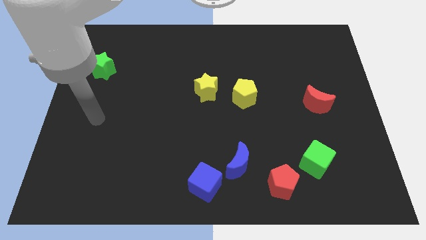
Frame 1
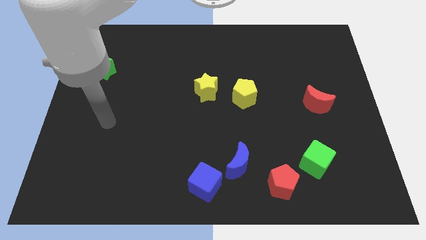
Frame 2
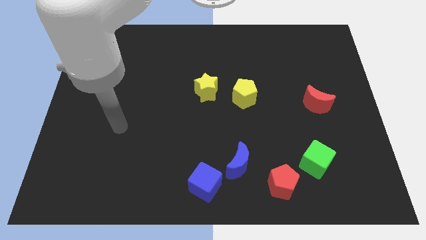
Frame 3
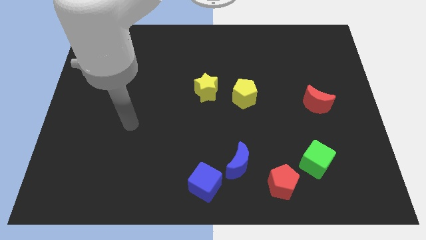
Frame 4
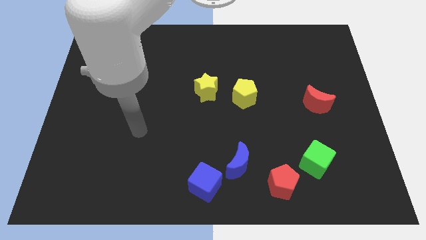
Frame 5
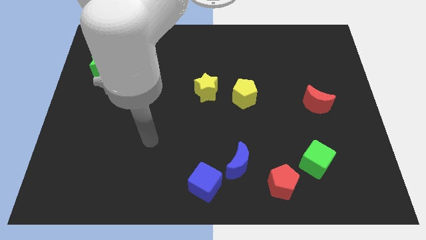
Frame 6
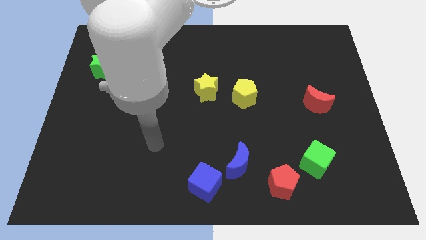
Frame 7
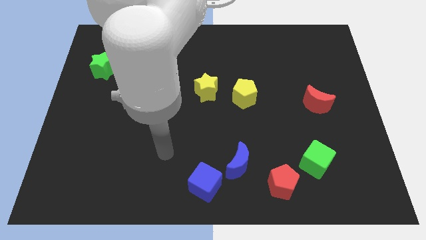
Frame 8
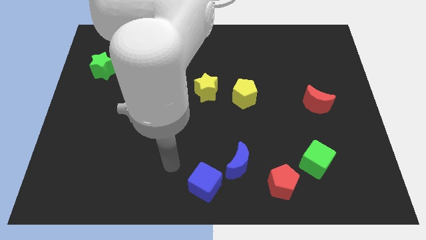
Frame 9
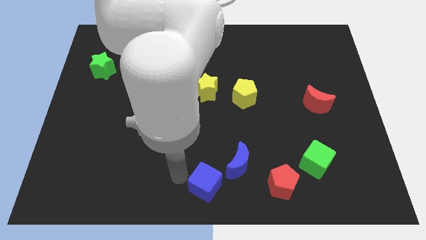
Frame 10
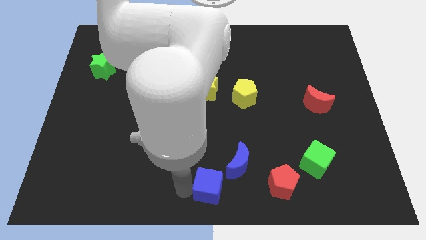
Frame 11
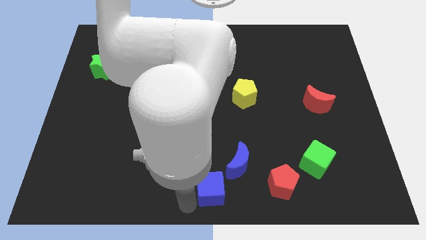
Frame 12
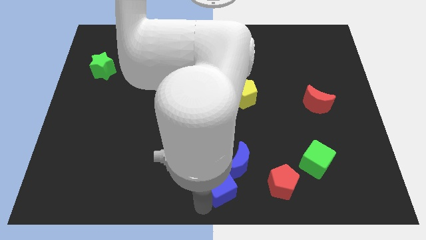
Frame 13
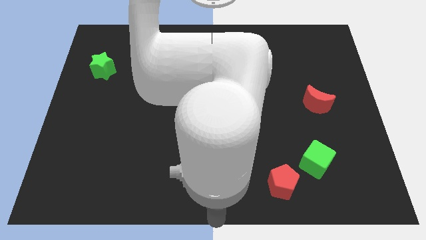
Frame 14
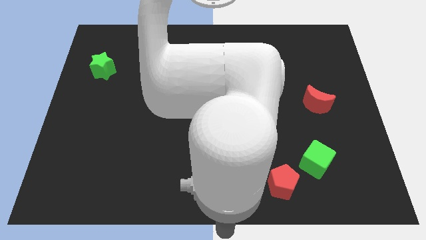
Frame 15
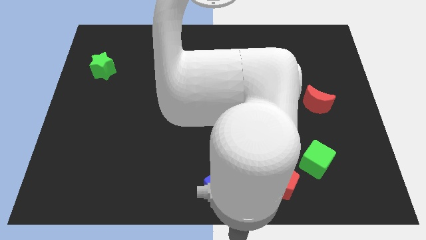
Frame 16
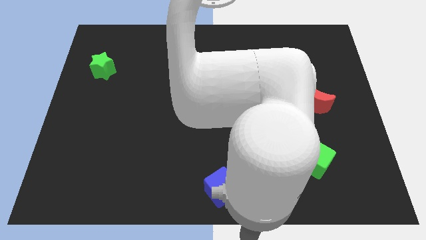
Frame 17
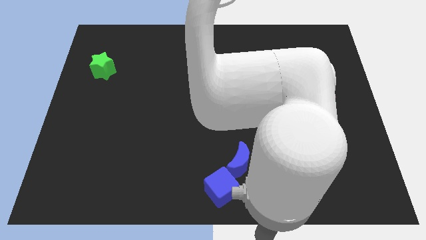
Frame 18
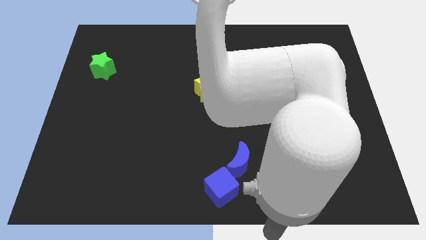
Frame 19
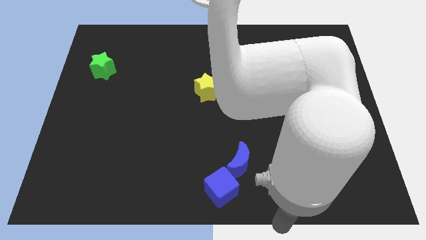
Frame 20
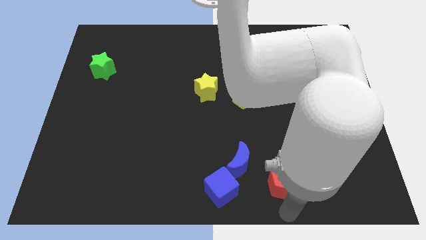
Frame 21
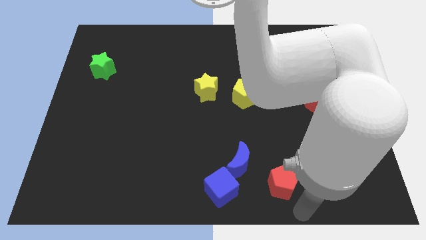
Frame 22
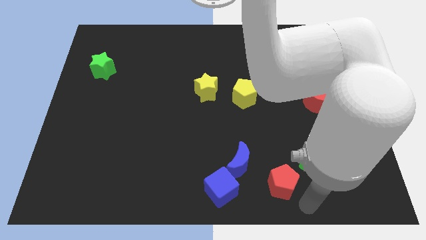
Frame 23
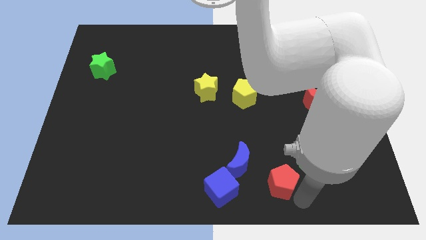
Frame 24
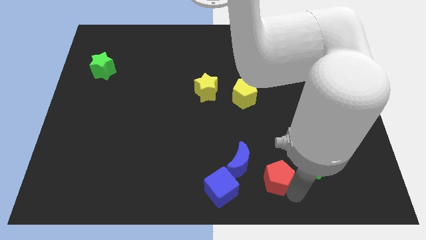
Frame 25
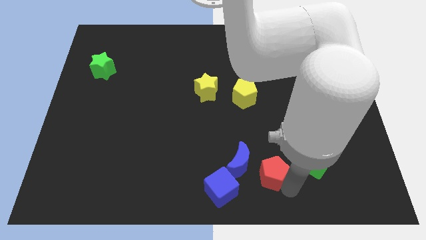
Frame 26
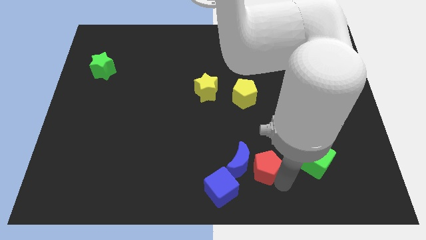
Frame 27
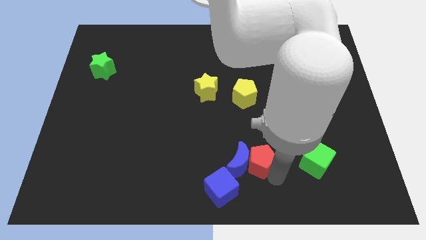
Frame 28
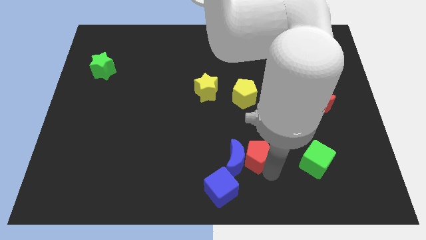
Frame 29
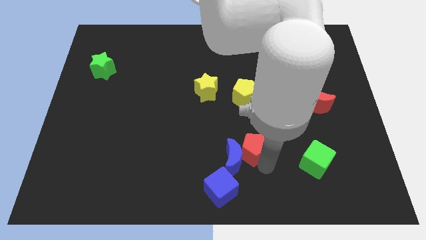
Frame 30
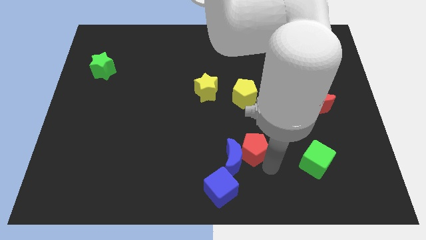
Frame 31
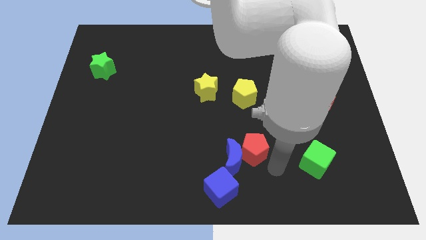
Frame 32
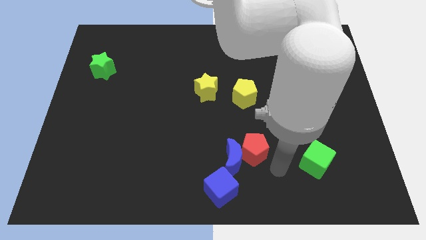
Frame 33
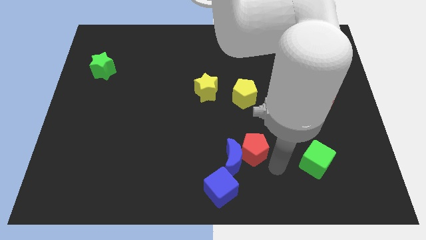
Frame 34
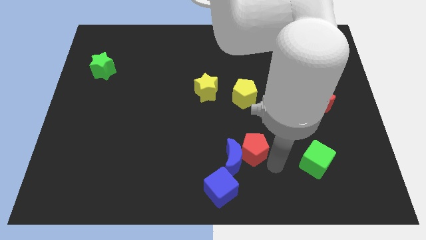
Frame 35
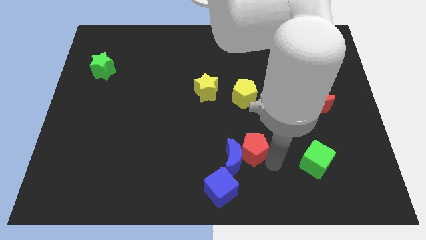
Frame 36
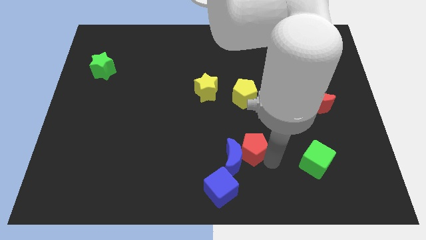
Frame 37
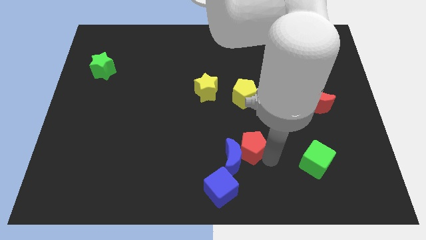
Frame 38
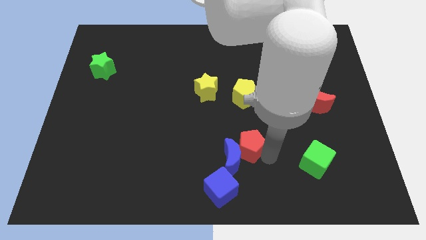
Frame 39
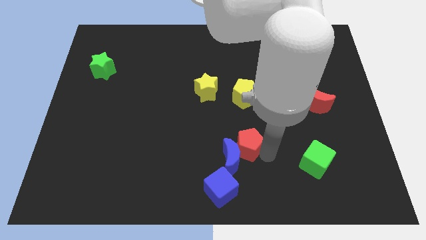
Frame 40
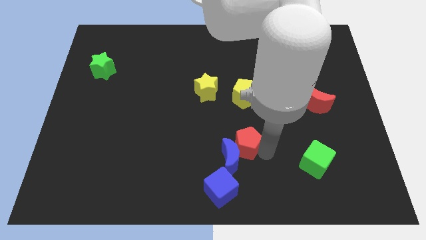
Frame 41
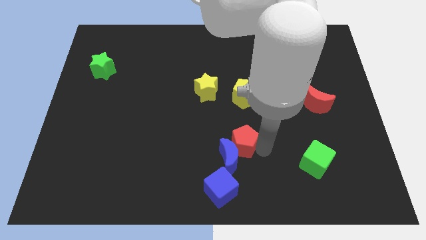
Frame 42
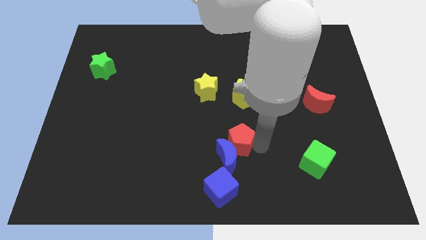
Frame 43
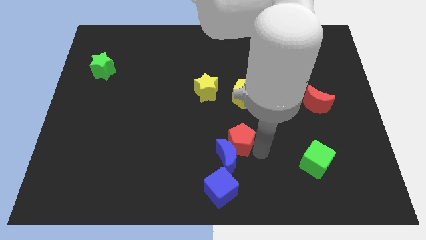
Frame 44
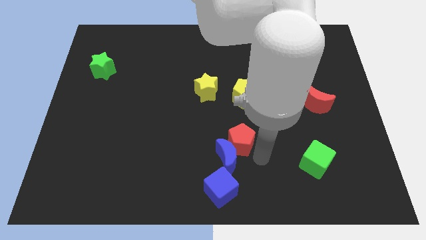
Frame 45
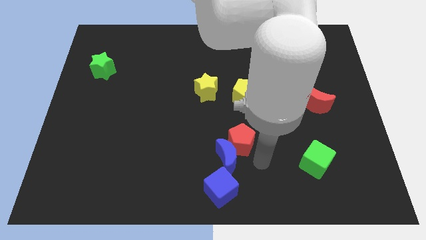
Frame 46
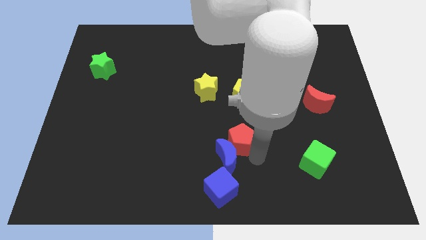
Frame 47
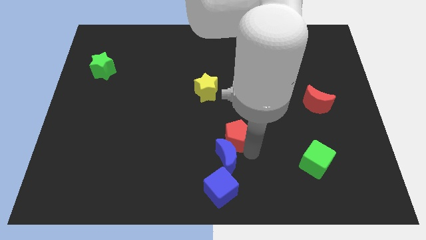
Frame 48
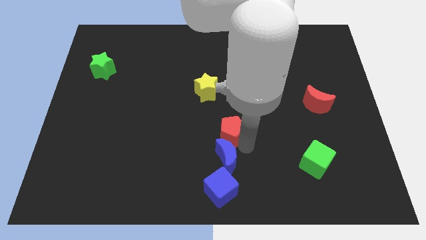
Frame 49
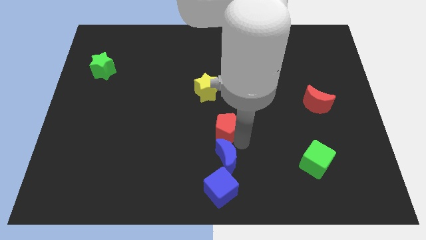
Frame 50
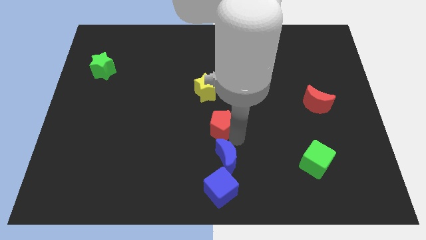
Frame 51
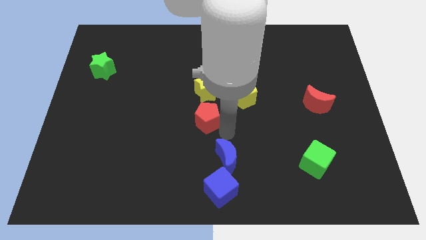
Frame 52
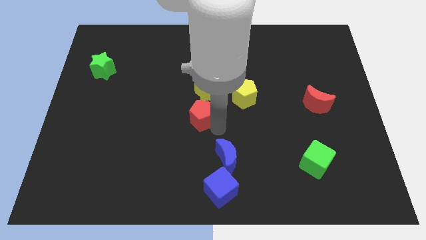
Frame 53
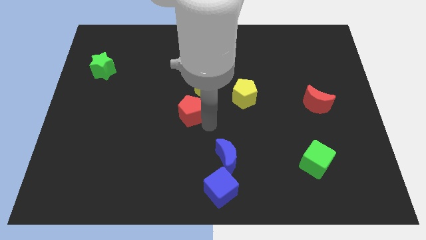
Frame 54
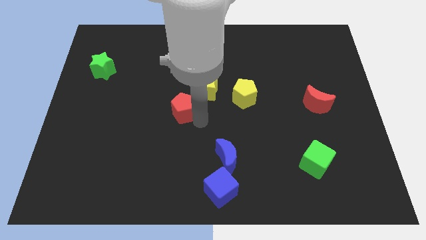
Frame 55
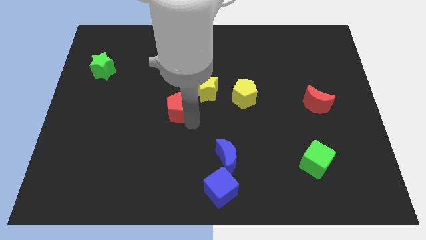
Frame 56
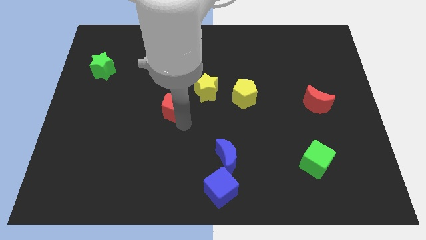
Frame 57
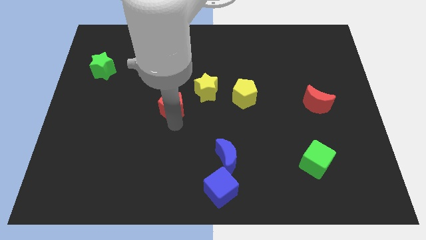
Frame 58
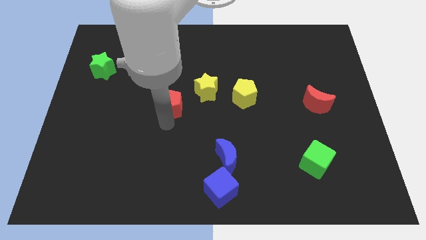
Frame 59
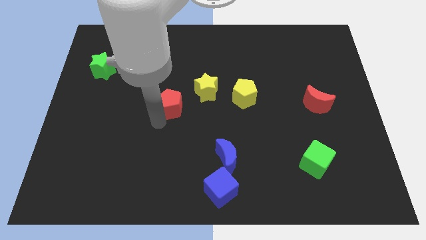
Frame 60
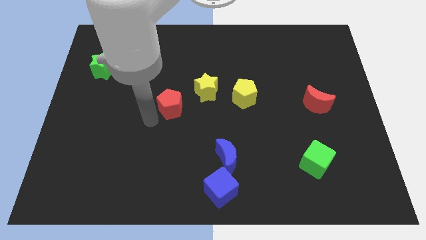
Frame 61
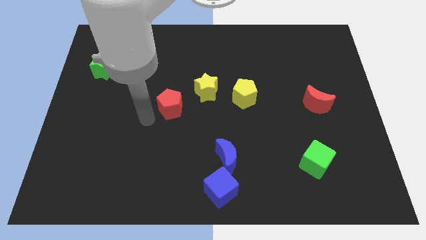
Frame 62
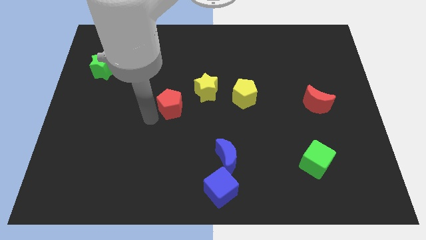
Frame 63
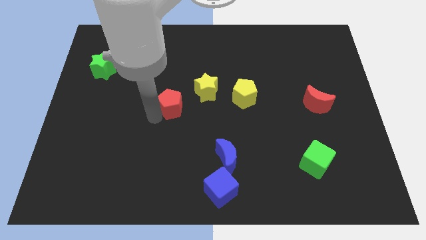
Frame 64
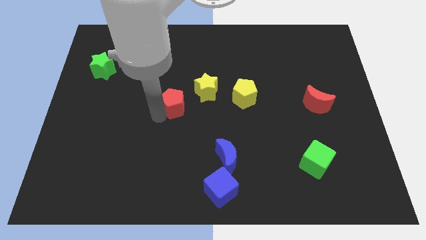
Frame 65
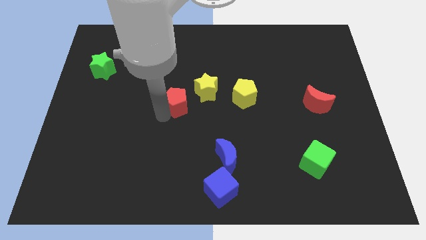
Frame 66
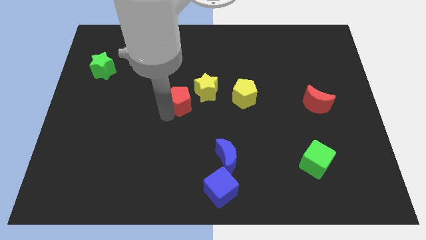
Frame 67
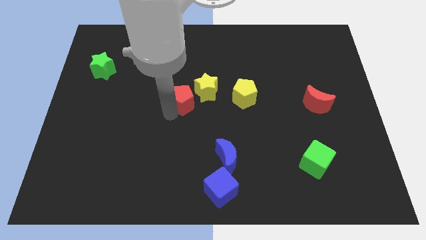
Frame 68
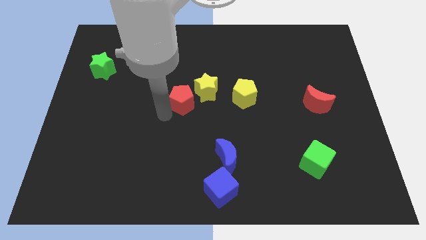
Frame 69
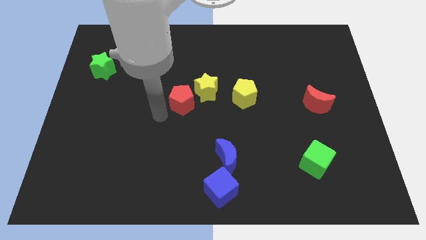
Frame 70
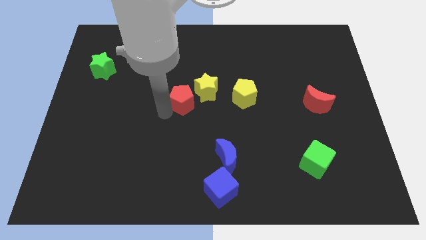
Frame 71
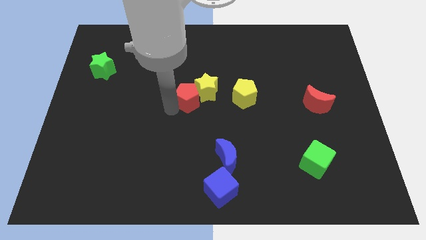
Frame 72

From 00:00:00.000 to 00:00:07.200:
push the red pentagon towards the yellow star

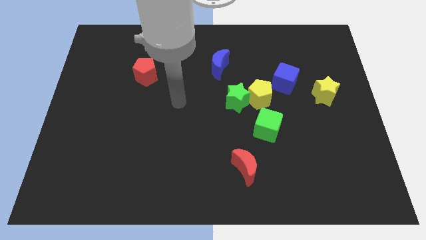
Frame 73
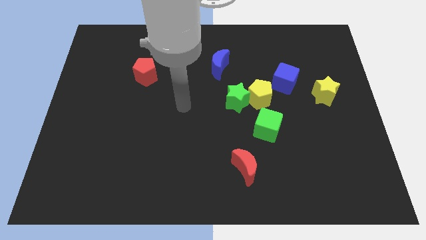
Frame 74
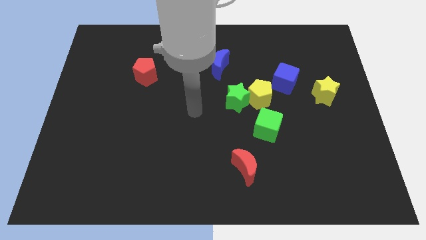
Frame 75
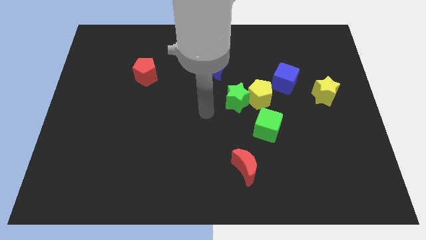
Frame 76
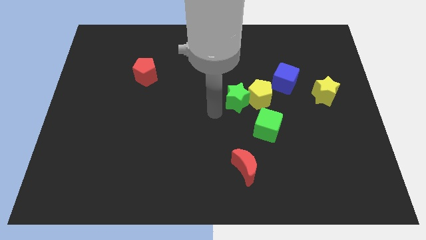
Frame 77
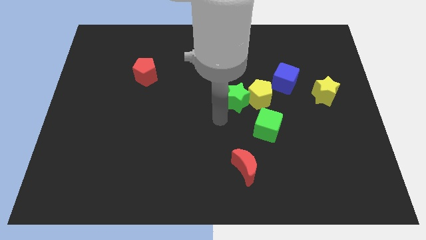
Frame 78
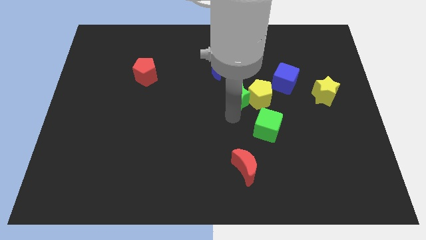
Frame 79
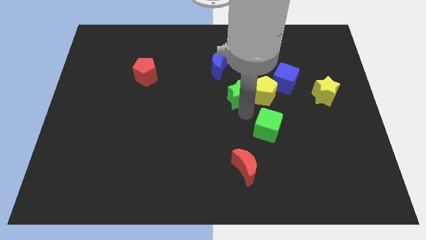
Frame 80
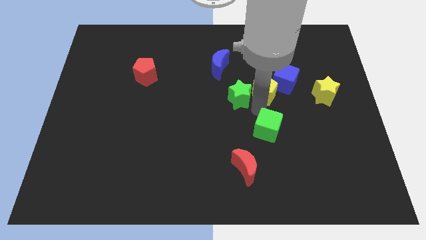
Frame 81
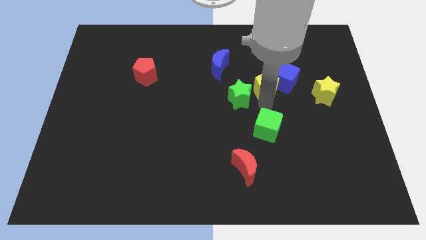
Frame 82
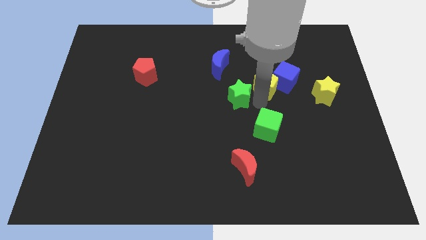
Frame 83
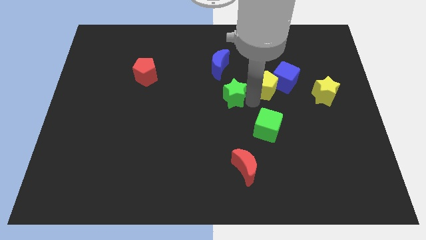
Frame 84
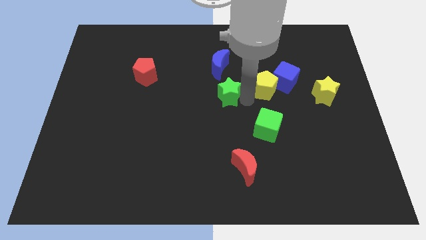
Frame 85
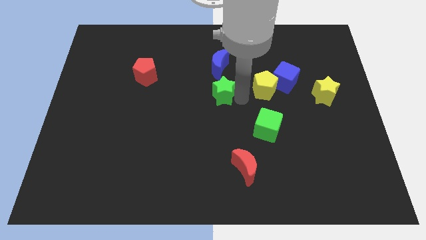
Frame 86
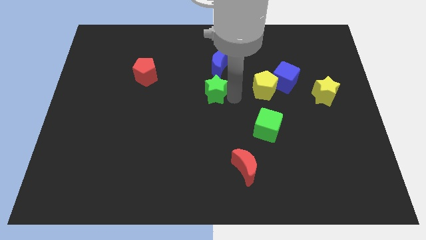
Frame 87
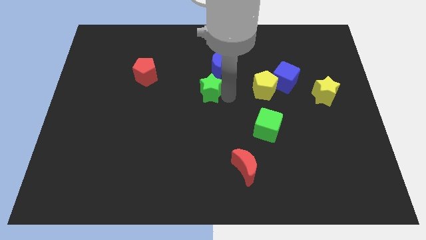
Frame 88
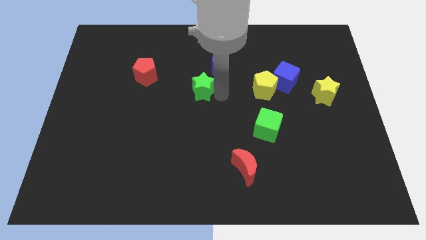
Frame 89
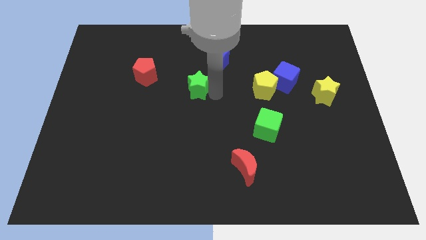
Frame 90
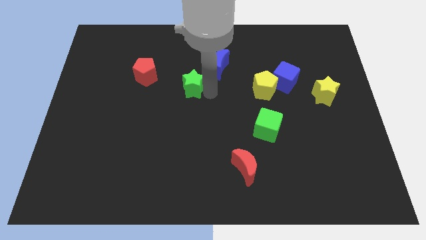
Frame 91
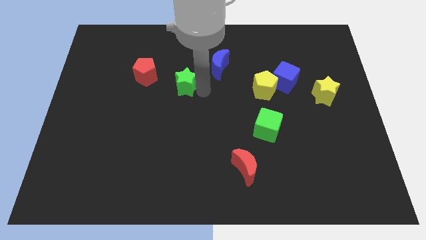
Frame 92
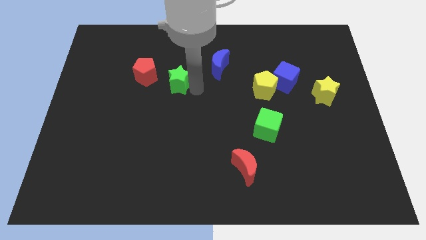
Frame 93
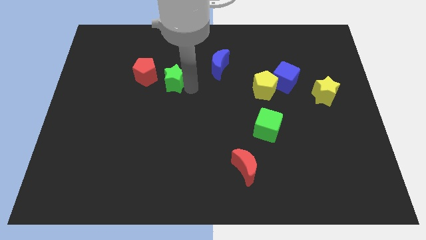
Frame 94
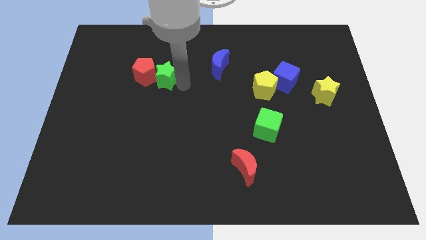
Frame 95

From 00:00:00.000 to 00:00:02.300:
put the green star to the red pentagon
